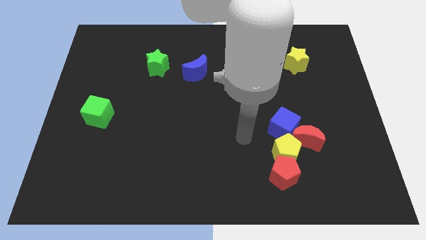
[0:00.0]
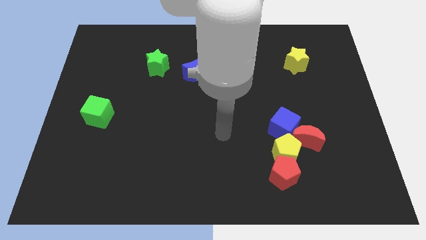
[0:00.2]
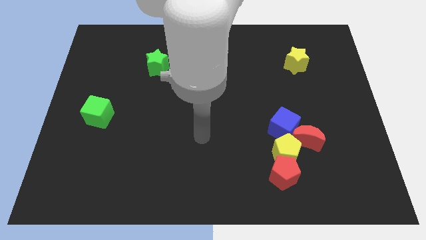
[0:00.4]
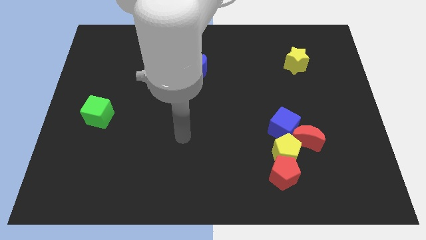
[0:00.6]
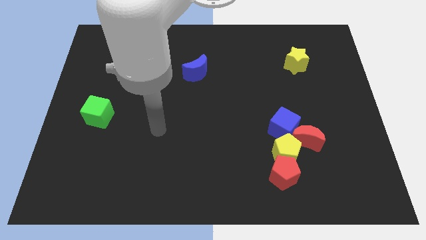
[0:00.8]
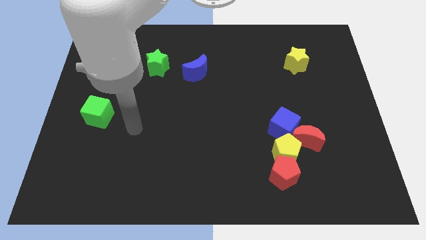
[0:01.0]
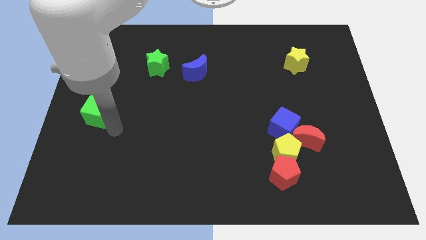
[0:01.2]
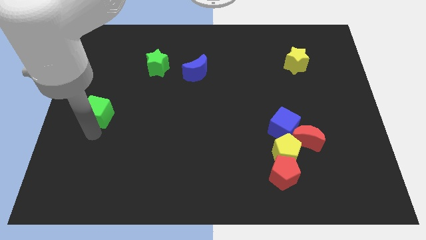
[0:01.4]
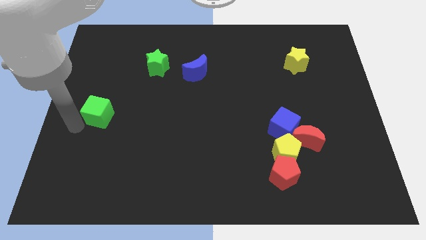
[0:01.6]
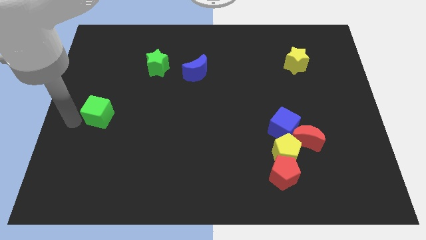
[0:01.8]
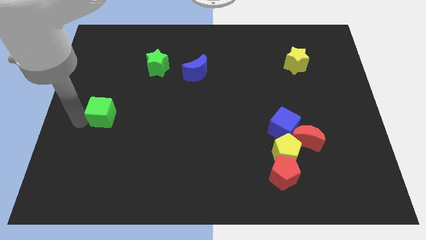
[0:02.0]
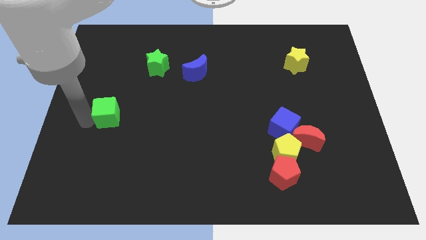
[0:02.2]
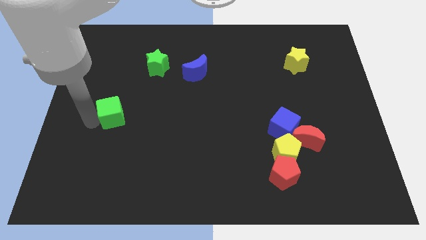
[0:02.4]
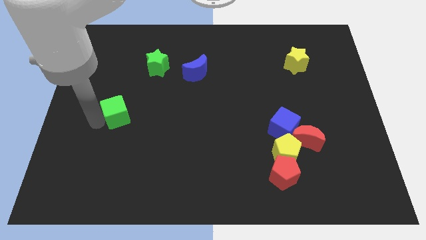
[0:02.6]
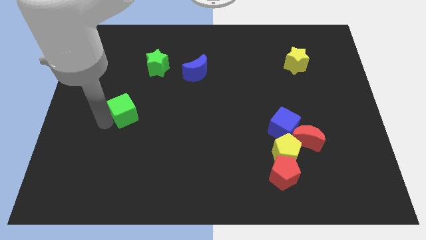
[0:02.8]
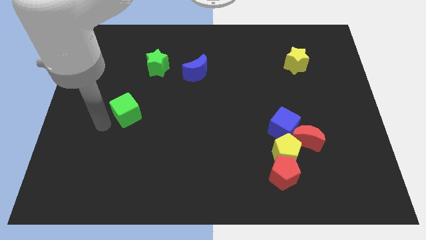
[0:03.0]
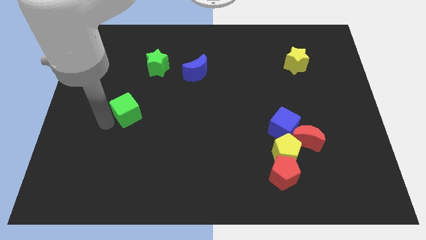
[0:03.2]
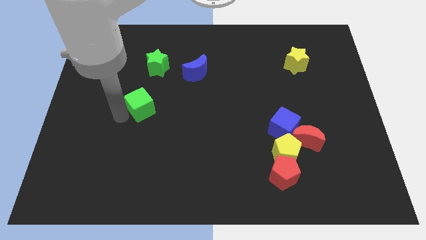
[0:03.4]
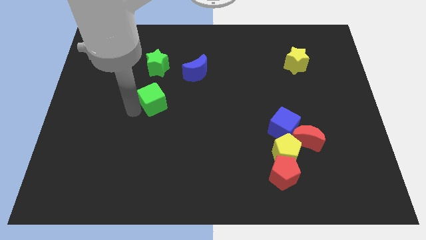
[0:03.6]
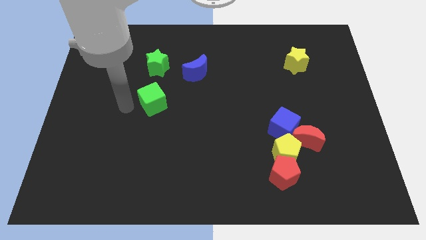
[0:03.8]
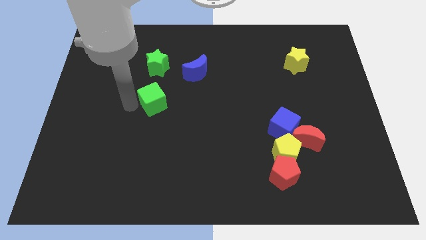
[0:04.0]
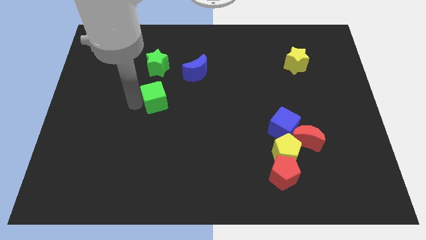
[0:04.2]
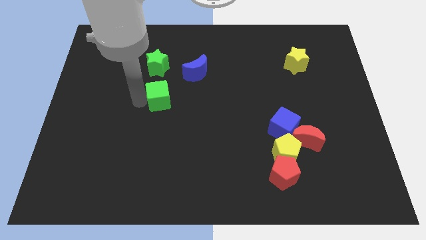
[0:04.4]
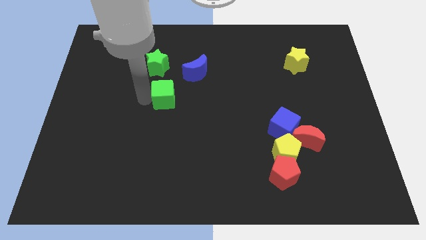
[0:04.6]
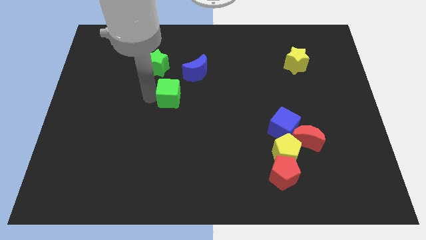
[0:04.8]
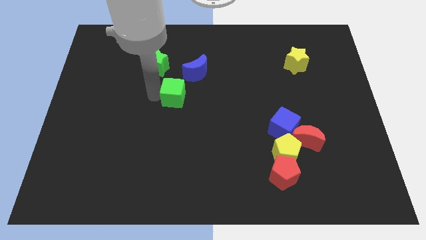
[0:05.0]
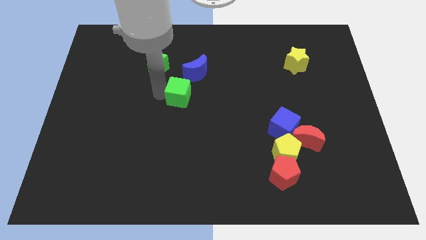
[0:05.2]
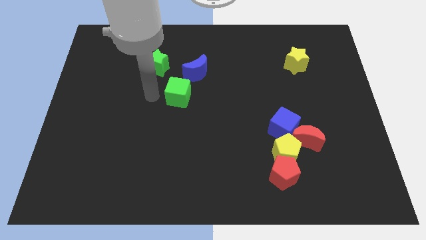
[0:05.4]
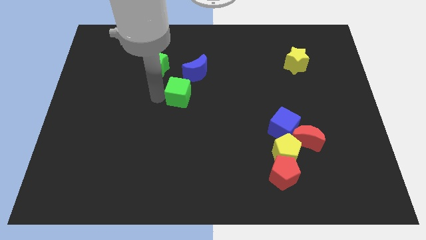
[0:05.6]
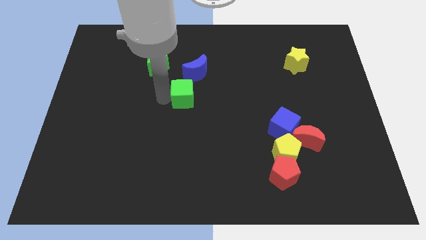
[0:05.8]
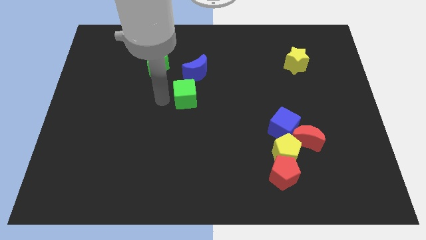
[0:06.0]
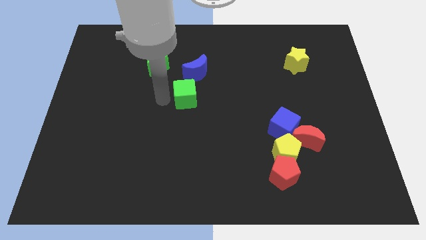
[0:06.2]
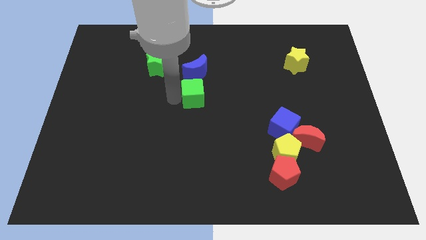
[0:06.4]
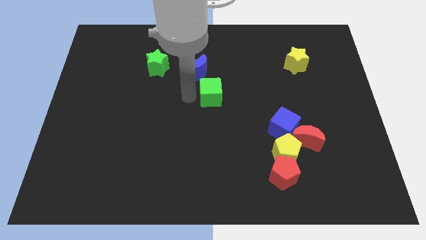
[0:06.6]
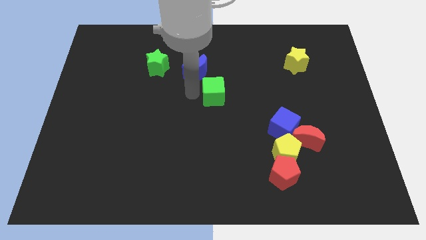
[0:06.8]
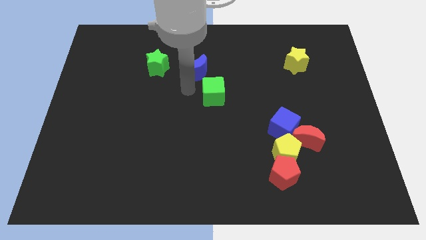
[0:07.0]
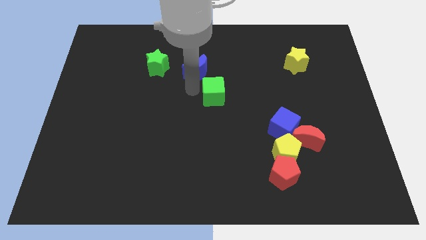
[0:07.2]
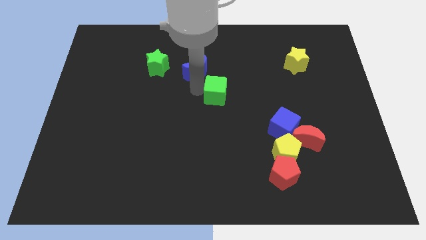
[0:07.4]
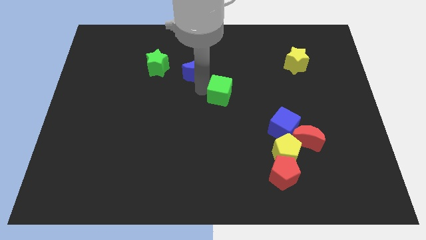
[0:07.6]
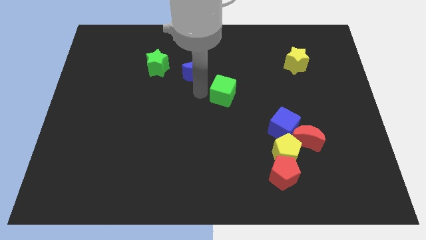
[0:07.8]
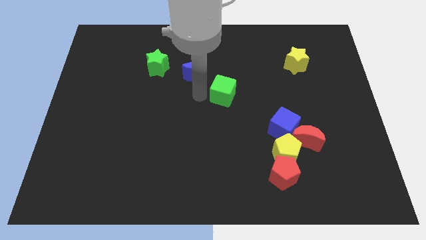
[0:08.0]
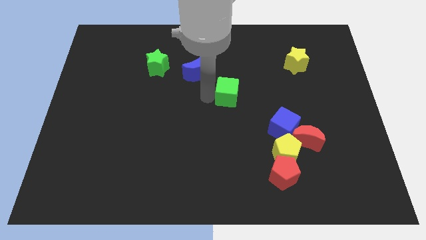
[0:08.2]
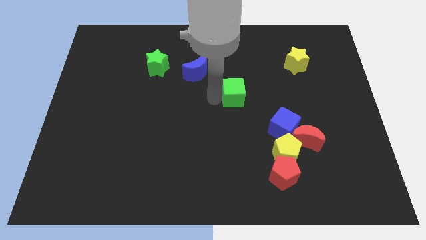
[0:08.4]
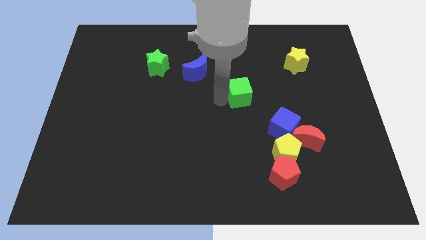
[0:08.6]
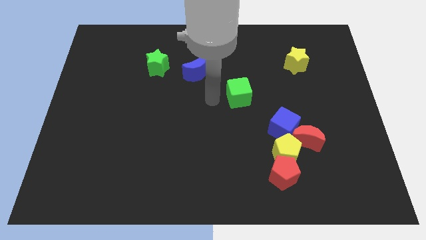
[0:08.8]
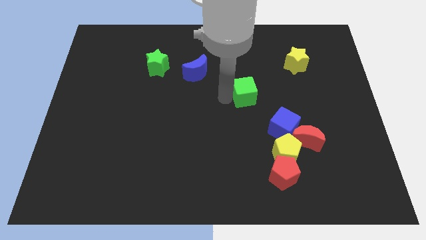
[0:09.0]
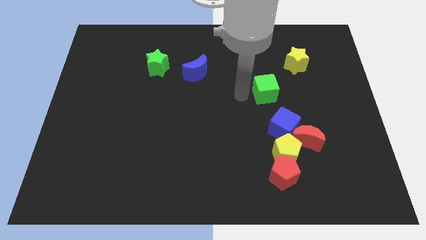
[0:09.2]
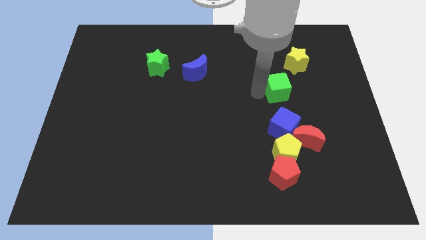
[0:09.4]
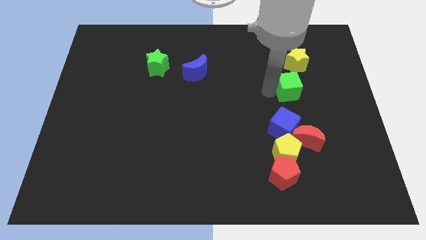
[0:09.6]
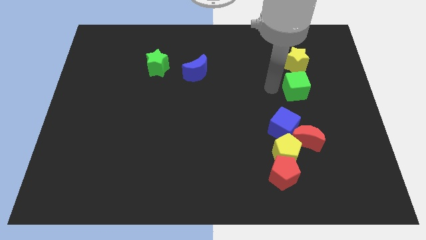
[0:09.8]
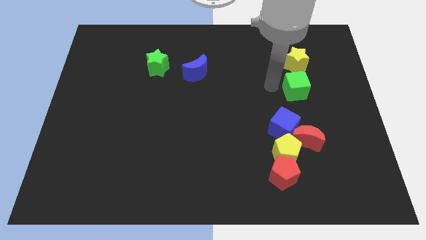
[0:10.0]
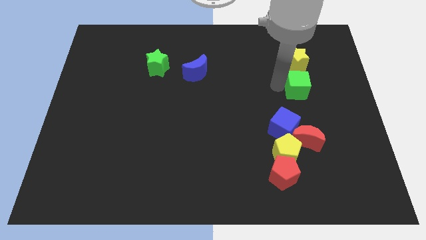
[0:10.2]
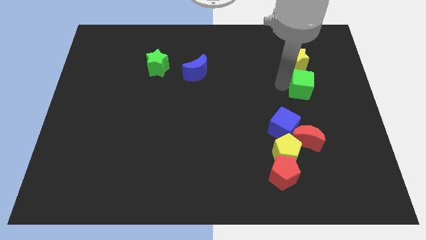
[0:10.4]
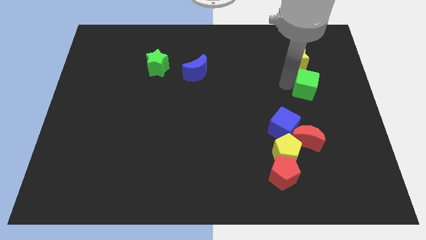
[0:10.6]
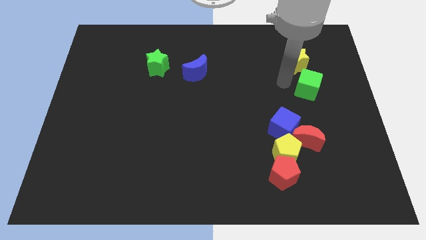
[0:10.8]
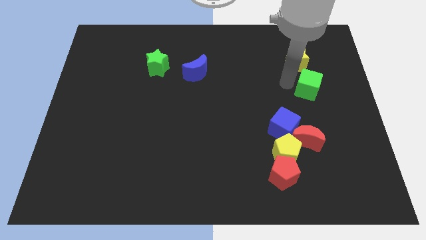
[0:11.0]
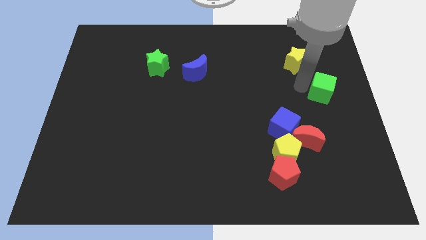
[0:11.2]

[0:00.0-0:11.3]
push the green cube to the right side of the board

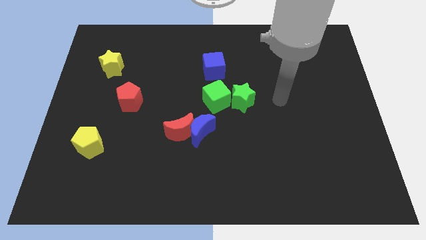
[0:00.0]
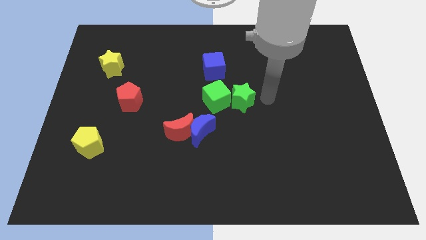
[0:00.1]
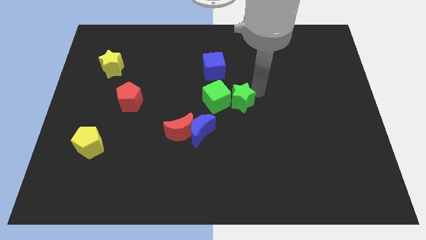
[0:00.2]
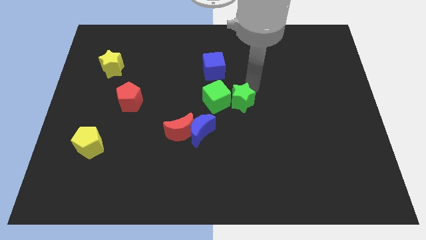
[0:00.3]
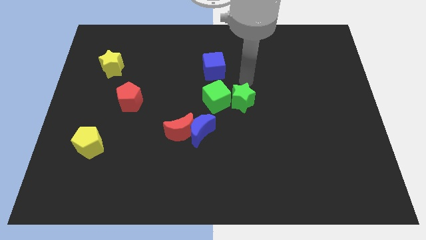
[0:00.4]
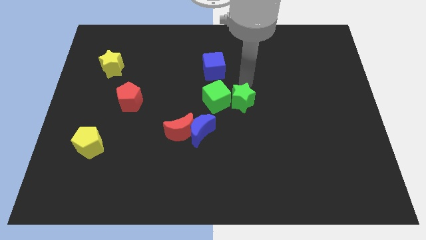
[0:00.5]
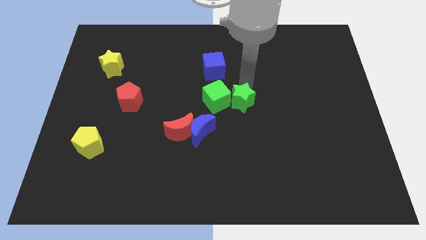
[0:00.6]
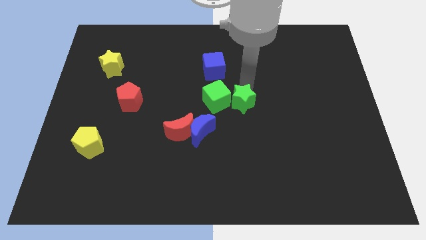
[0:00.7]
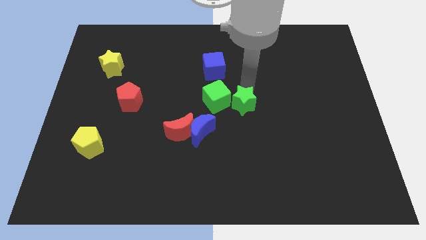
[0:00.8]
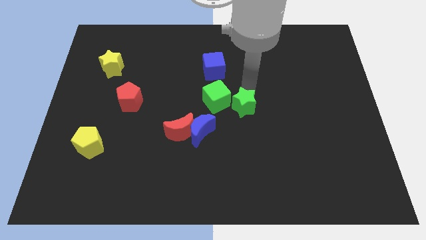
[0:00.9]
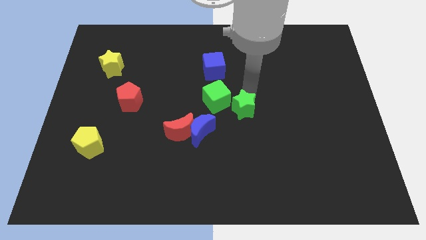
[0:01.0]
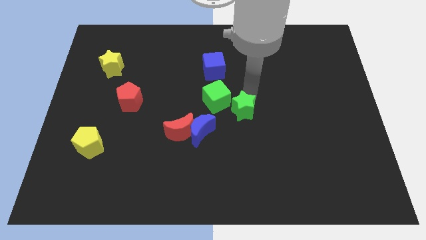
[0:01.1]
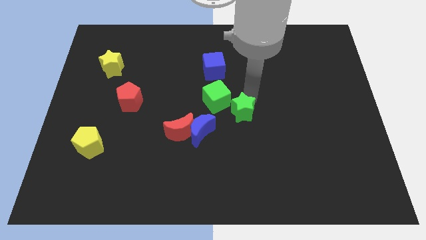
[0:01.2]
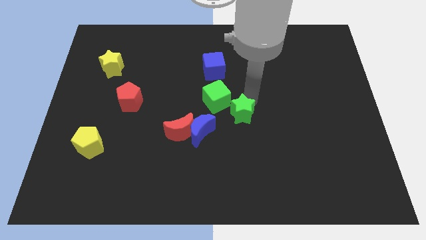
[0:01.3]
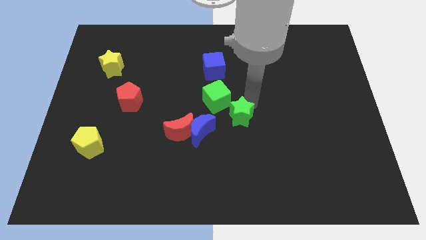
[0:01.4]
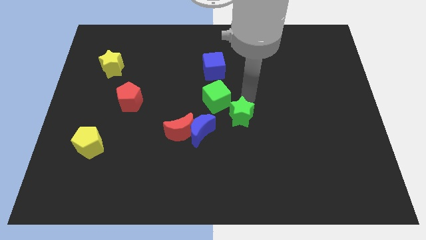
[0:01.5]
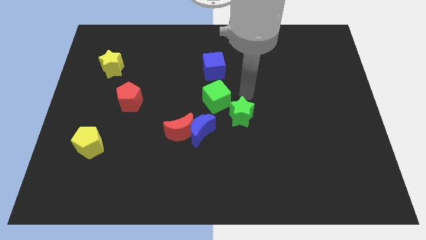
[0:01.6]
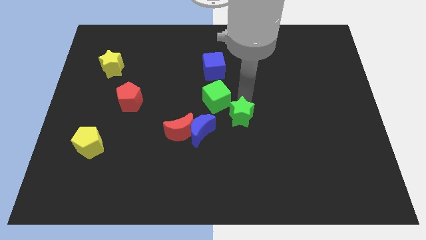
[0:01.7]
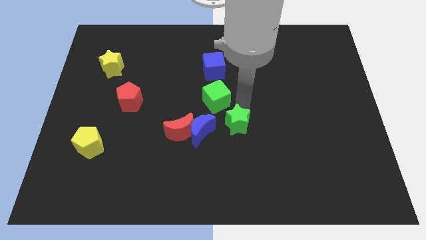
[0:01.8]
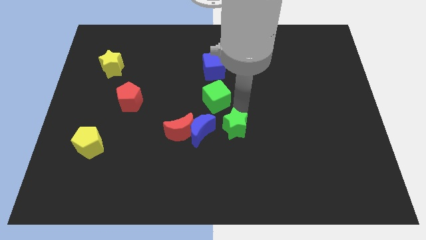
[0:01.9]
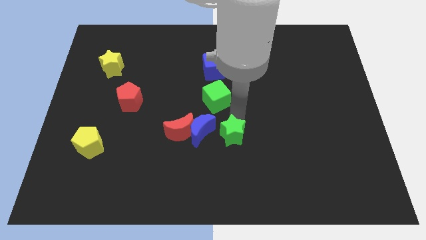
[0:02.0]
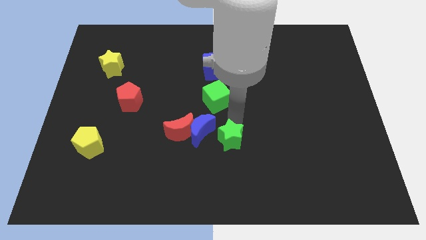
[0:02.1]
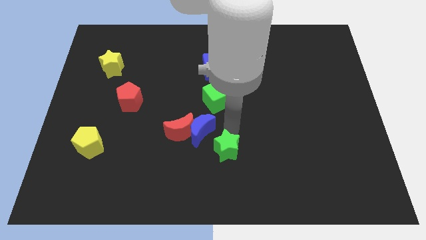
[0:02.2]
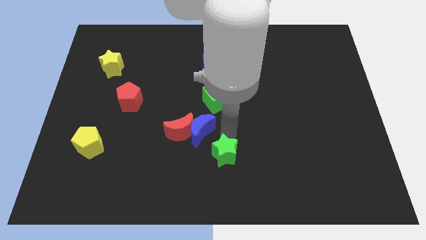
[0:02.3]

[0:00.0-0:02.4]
move the green star to the bottom
